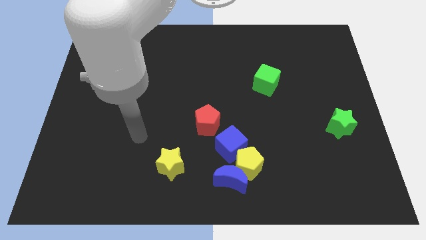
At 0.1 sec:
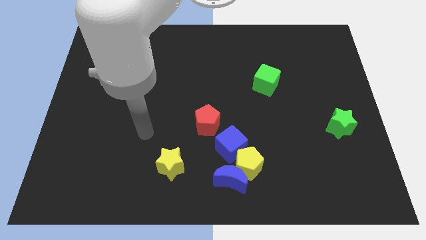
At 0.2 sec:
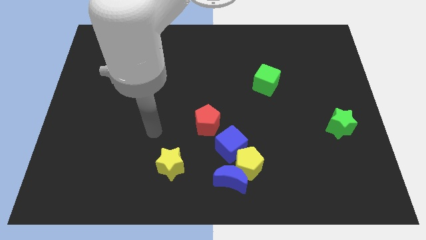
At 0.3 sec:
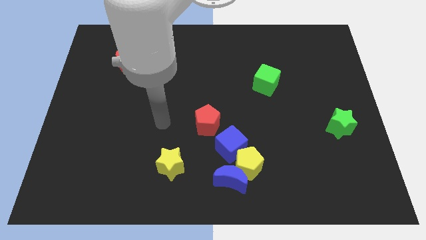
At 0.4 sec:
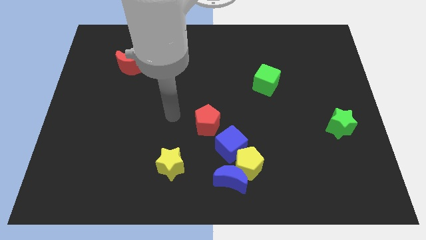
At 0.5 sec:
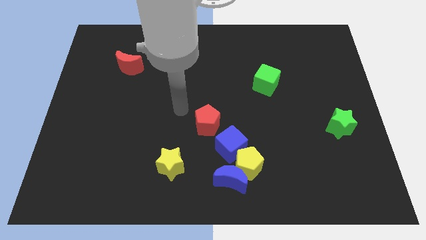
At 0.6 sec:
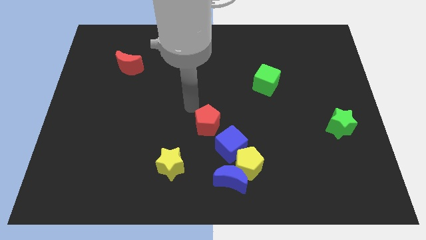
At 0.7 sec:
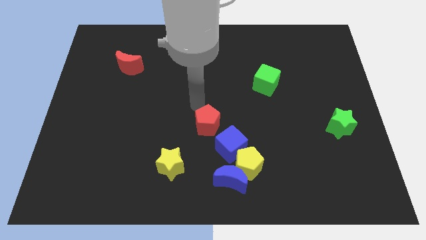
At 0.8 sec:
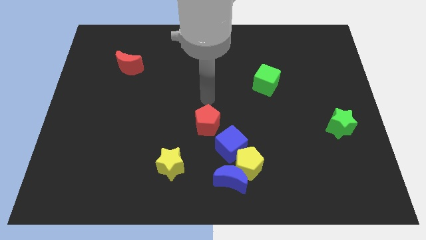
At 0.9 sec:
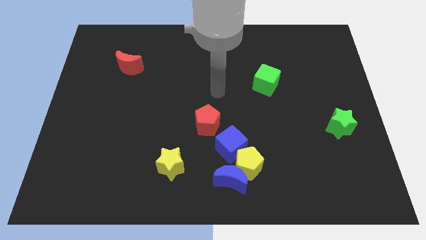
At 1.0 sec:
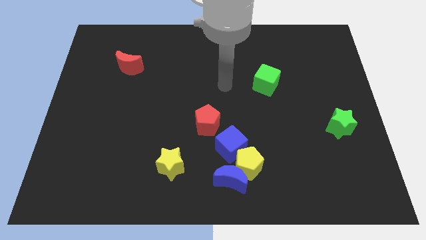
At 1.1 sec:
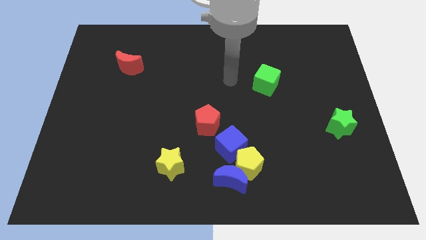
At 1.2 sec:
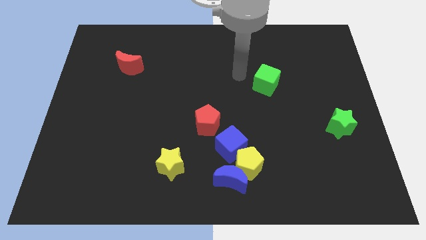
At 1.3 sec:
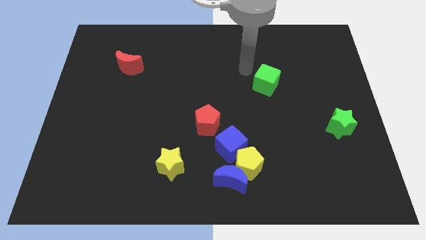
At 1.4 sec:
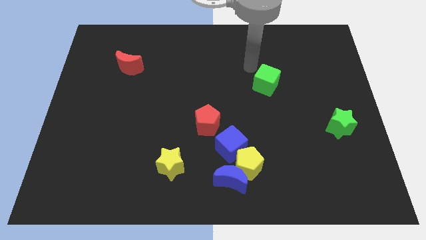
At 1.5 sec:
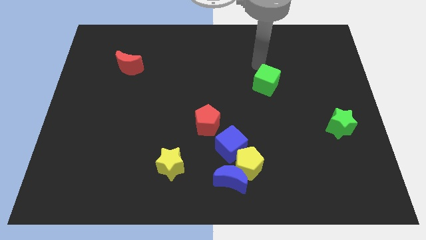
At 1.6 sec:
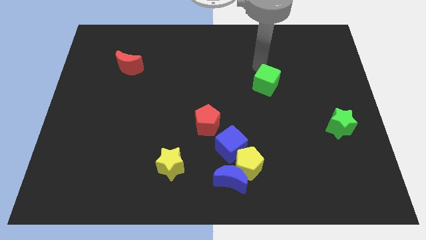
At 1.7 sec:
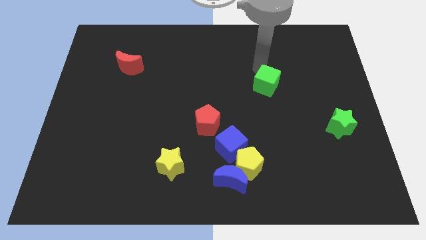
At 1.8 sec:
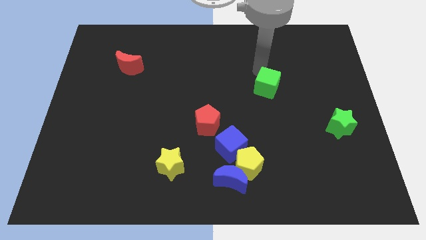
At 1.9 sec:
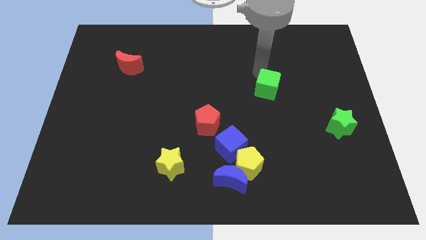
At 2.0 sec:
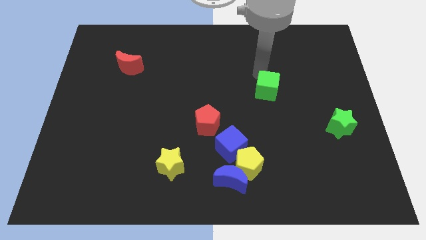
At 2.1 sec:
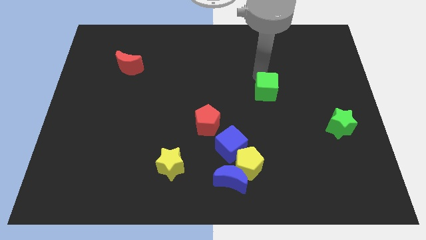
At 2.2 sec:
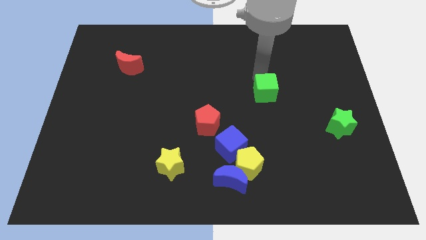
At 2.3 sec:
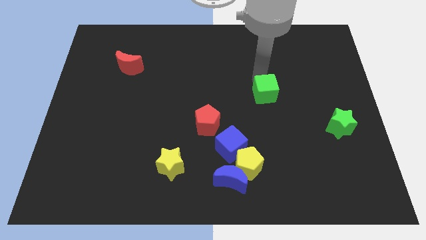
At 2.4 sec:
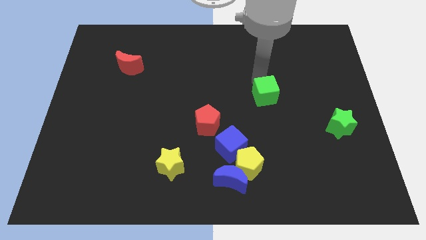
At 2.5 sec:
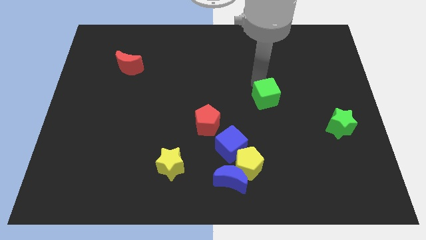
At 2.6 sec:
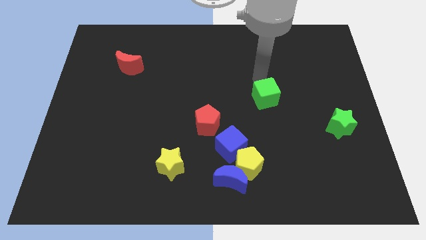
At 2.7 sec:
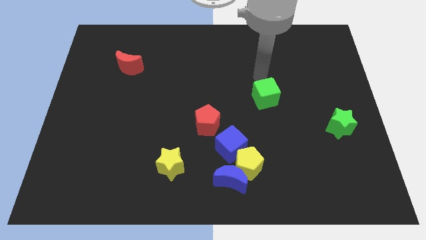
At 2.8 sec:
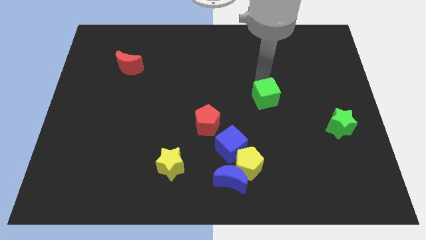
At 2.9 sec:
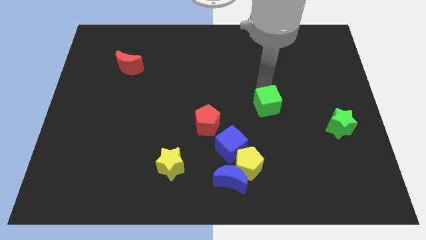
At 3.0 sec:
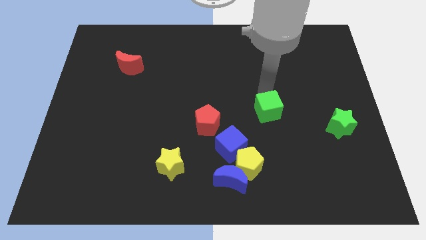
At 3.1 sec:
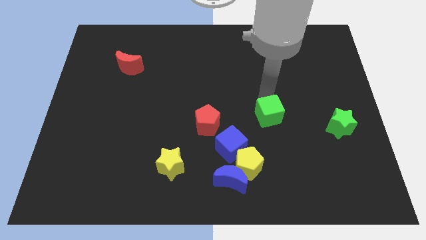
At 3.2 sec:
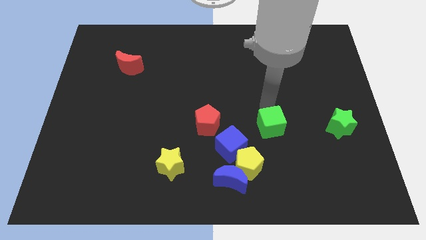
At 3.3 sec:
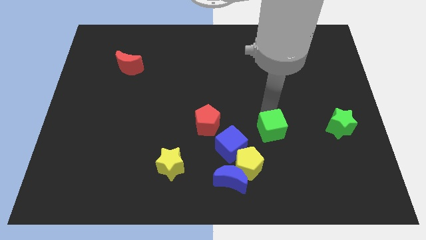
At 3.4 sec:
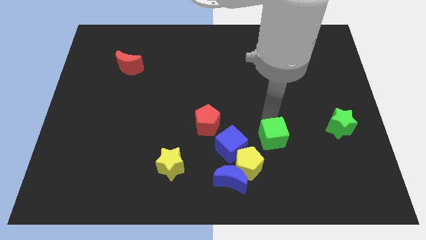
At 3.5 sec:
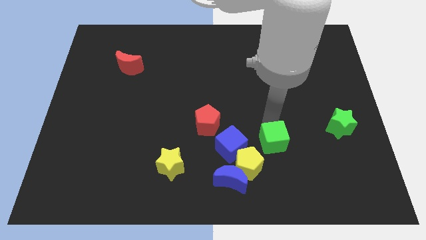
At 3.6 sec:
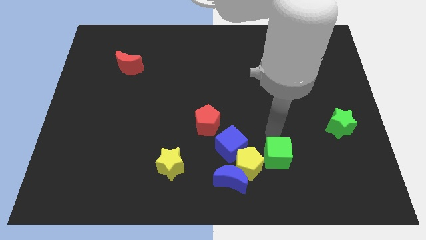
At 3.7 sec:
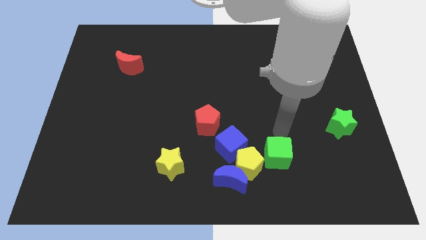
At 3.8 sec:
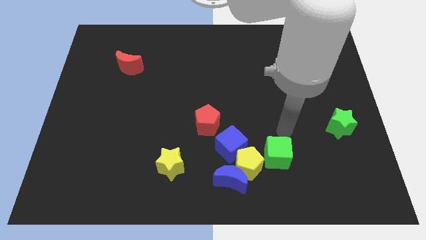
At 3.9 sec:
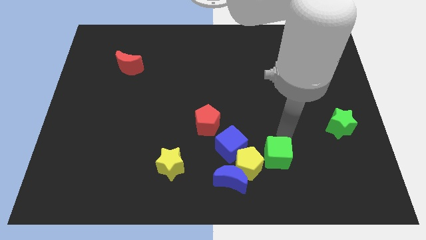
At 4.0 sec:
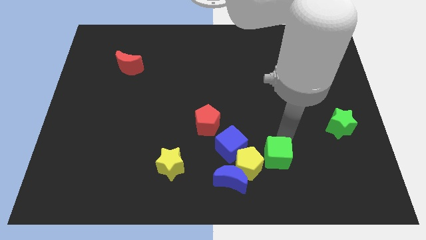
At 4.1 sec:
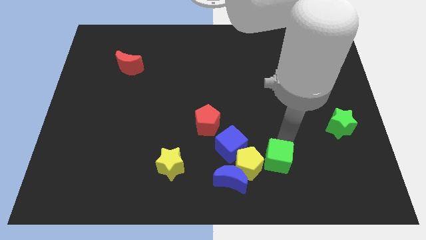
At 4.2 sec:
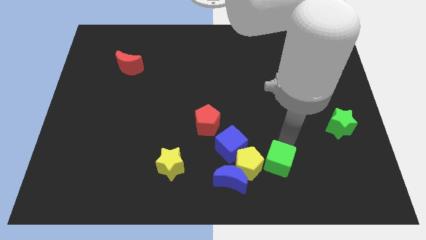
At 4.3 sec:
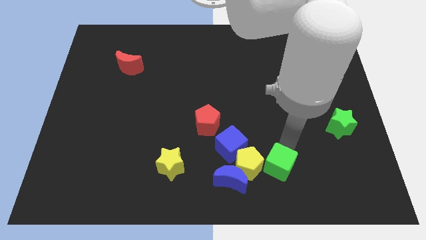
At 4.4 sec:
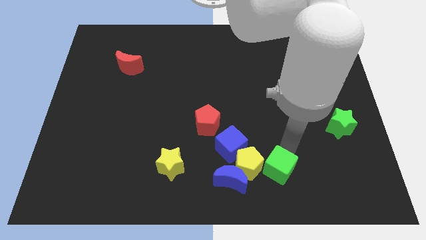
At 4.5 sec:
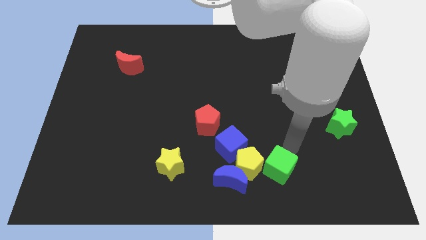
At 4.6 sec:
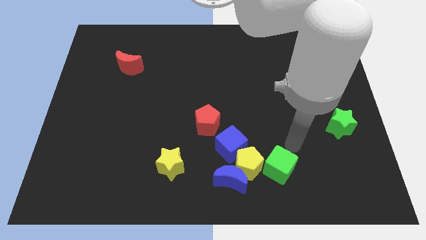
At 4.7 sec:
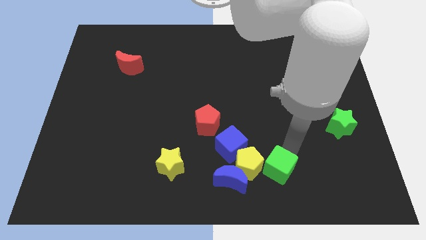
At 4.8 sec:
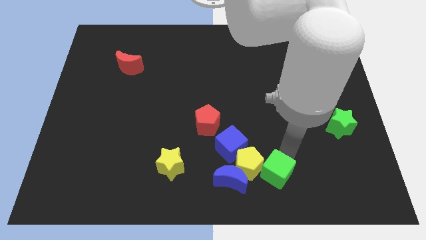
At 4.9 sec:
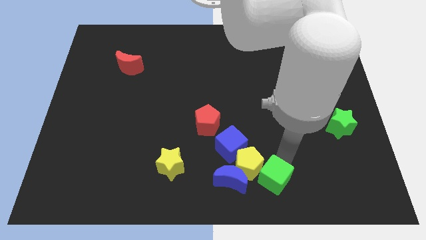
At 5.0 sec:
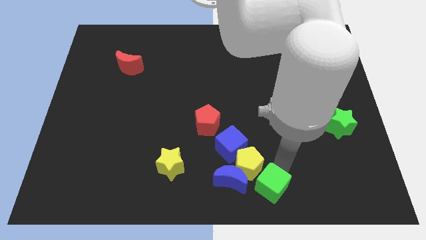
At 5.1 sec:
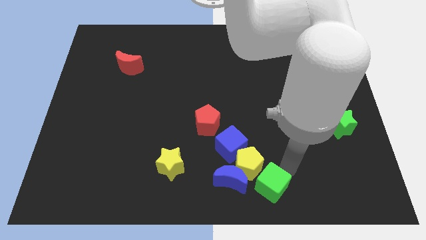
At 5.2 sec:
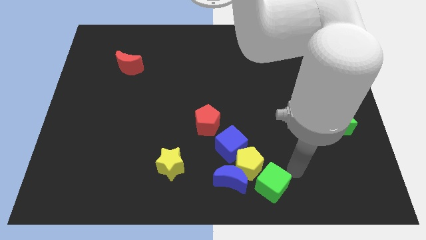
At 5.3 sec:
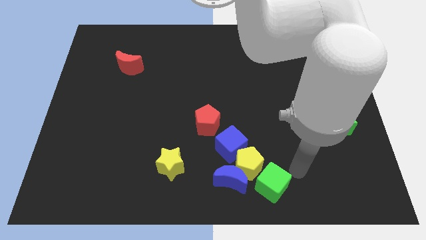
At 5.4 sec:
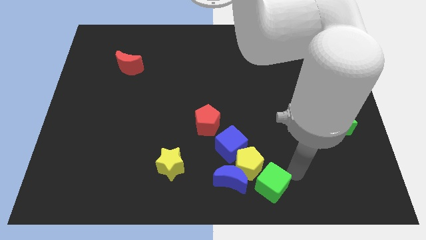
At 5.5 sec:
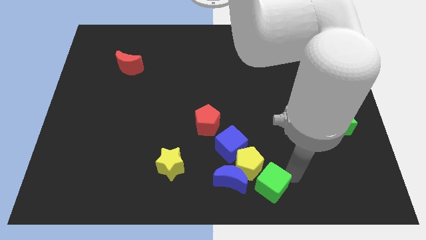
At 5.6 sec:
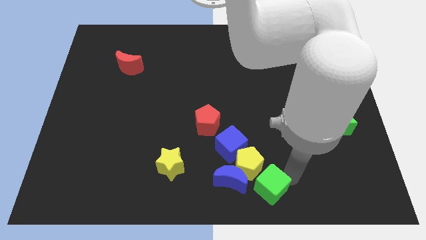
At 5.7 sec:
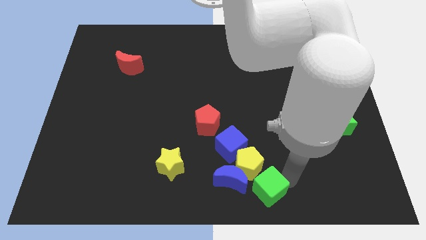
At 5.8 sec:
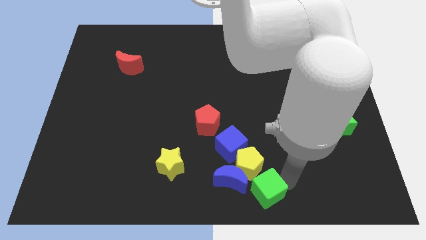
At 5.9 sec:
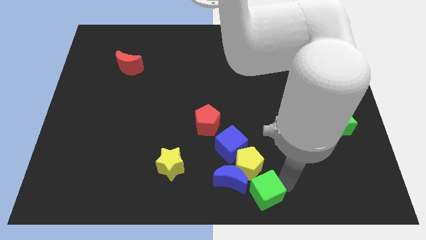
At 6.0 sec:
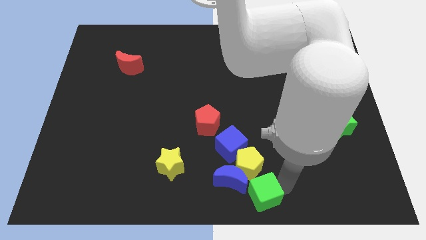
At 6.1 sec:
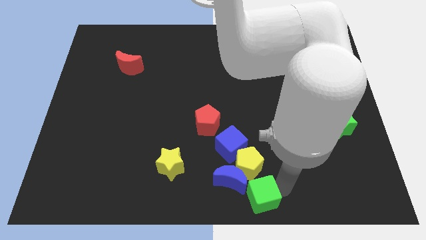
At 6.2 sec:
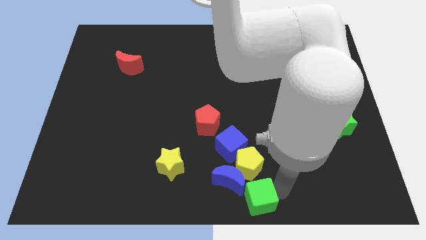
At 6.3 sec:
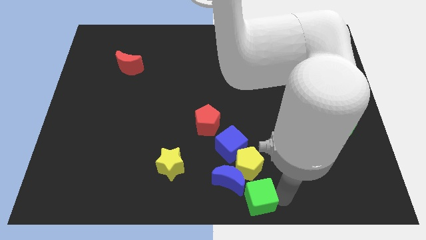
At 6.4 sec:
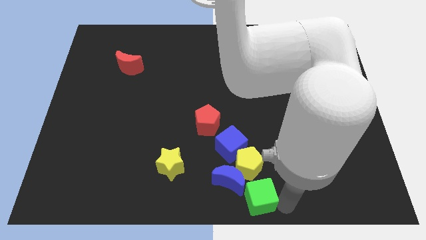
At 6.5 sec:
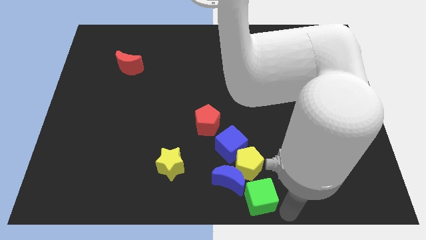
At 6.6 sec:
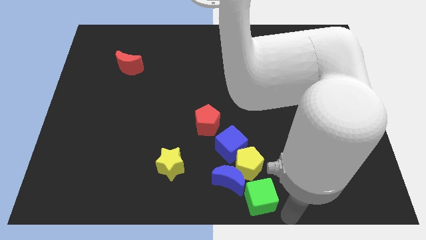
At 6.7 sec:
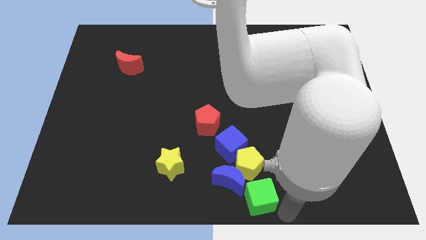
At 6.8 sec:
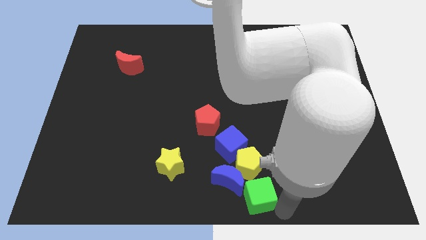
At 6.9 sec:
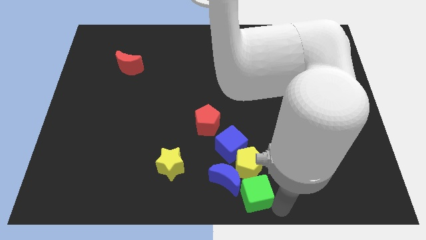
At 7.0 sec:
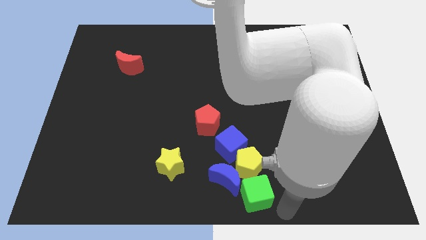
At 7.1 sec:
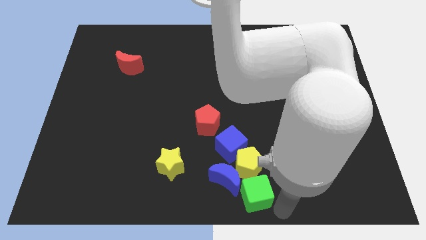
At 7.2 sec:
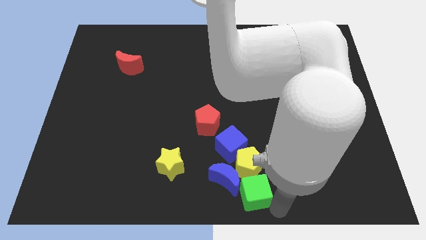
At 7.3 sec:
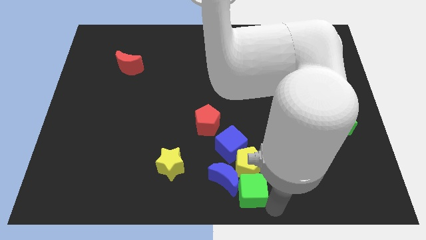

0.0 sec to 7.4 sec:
put the green cube next to the blue moon
